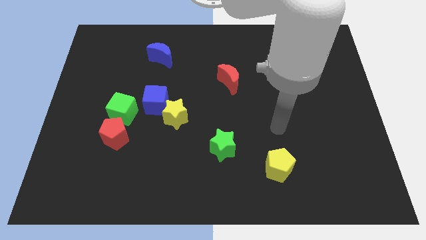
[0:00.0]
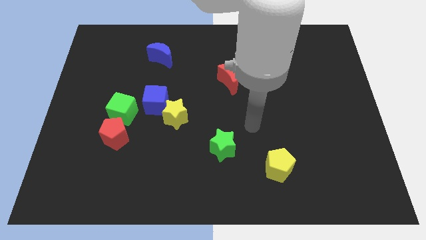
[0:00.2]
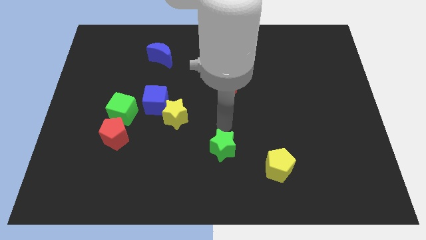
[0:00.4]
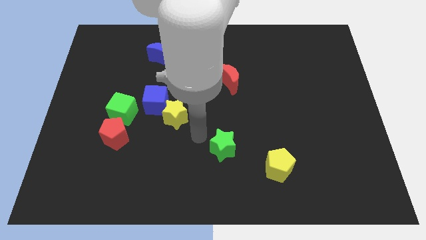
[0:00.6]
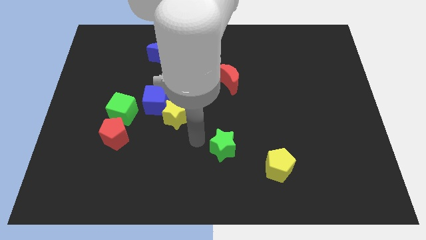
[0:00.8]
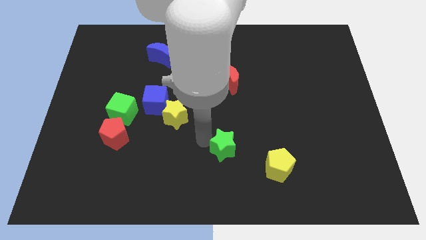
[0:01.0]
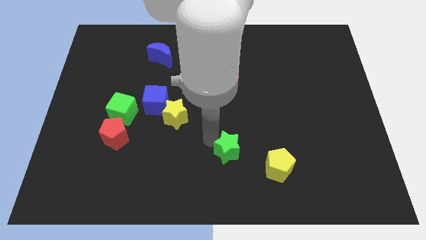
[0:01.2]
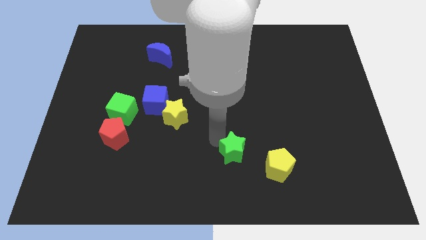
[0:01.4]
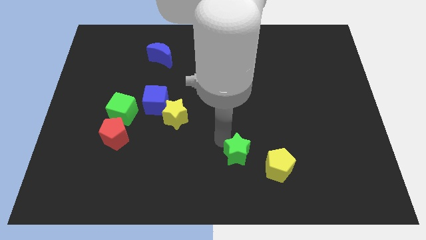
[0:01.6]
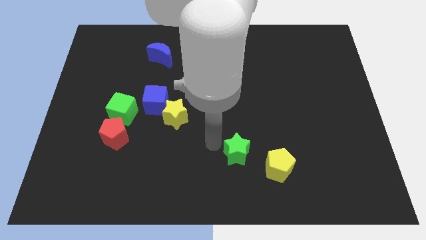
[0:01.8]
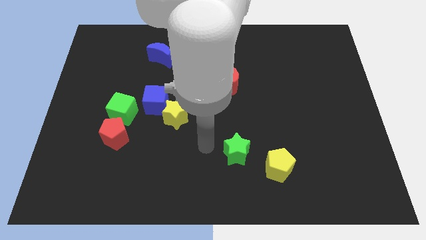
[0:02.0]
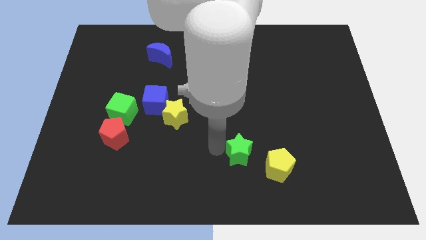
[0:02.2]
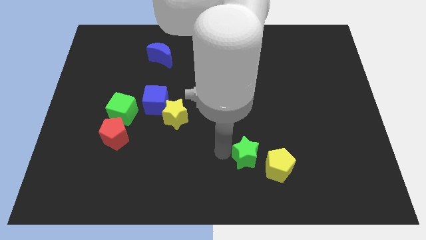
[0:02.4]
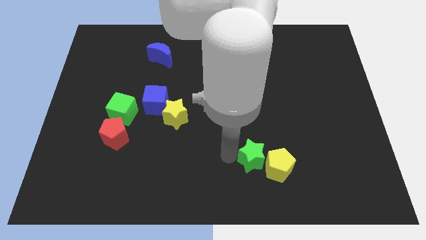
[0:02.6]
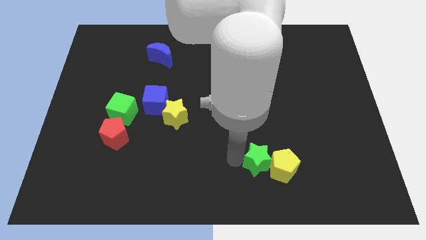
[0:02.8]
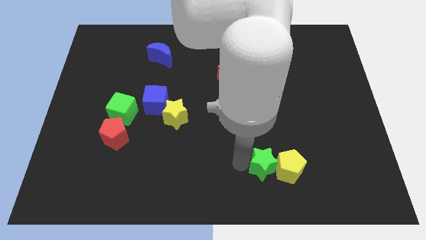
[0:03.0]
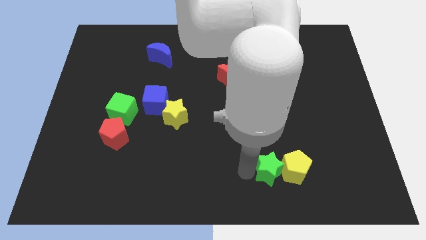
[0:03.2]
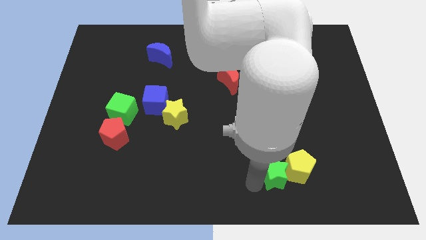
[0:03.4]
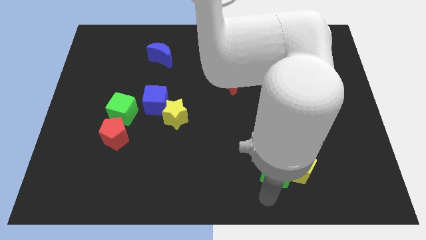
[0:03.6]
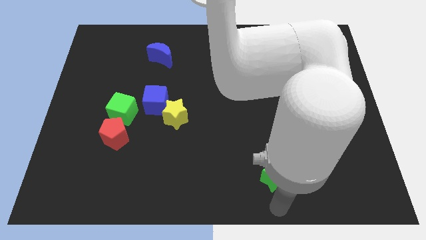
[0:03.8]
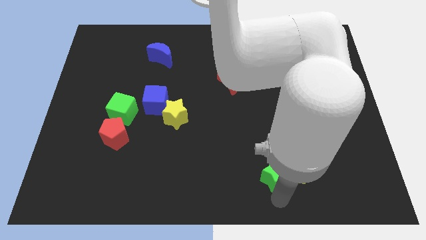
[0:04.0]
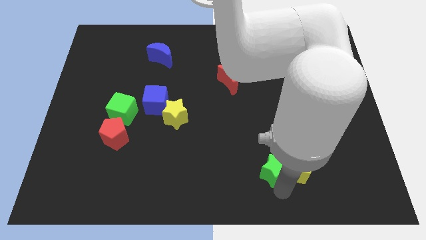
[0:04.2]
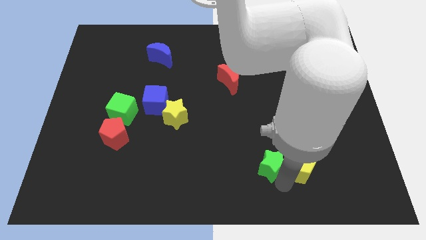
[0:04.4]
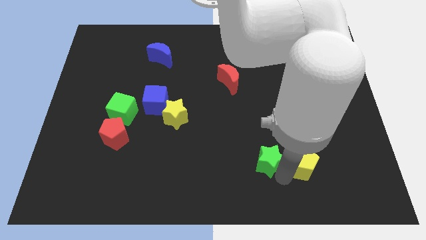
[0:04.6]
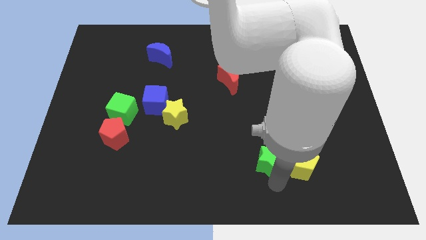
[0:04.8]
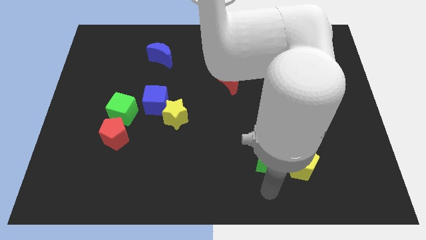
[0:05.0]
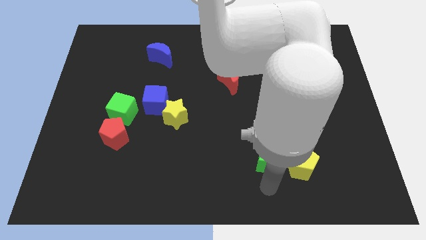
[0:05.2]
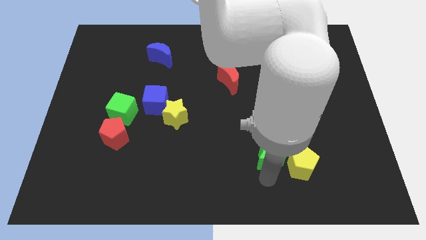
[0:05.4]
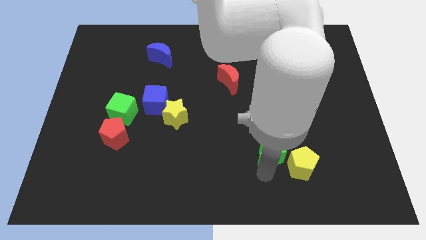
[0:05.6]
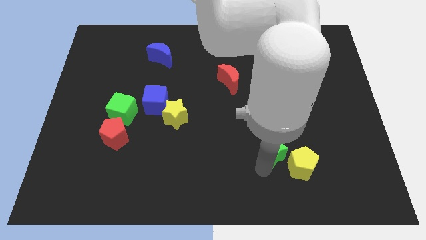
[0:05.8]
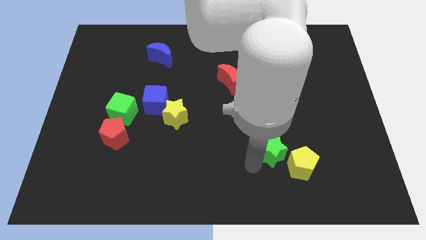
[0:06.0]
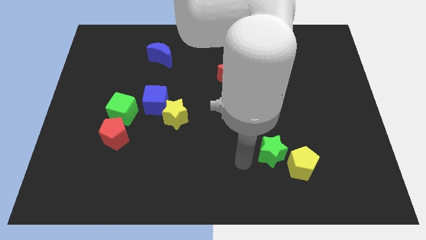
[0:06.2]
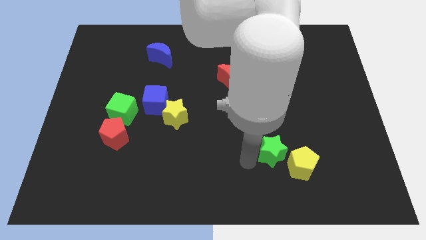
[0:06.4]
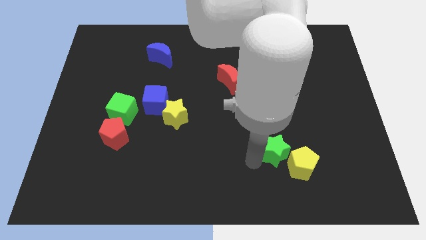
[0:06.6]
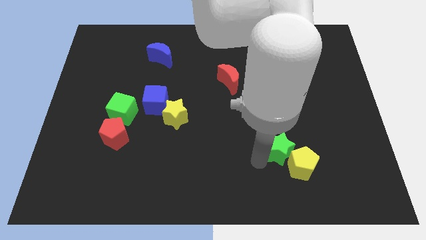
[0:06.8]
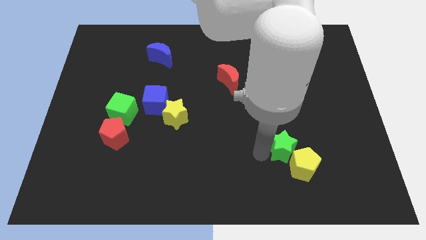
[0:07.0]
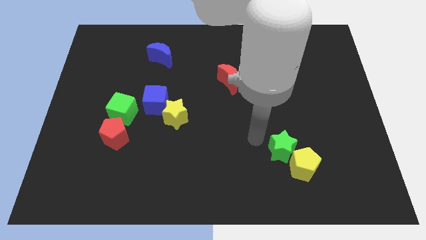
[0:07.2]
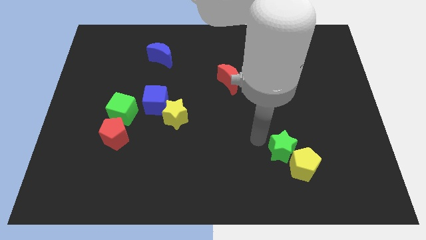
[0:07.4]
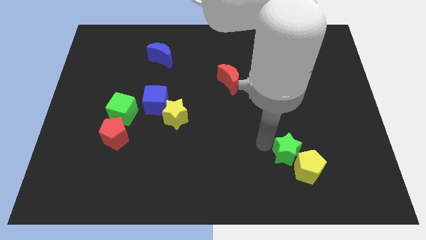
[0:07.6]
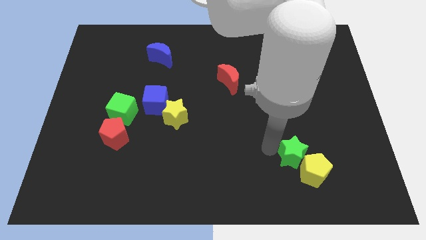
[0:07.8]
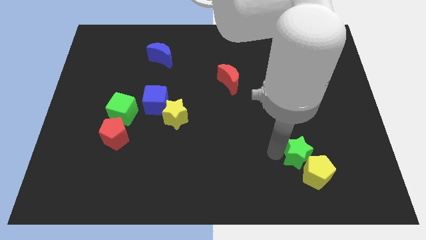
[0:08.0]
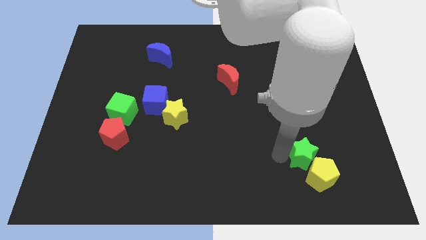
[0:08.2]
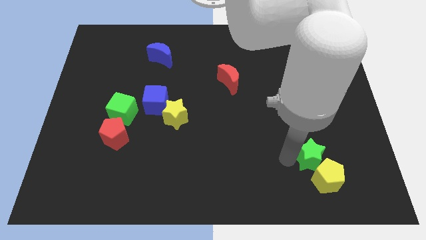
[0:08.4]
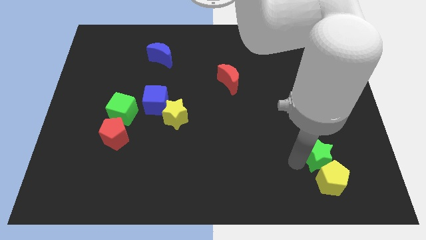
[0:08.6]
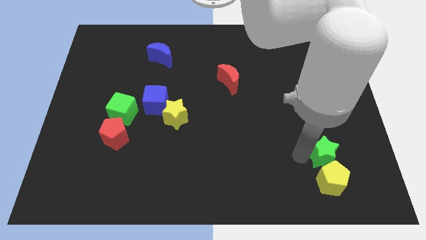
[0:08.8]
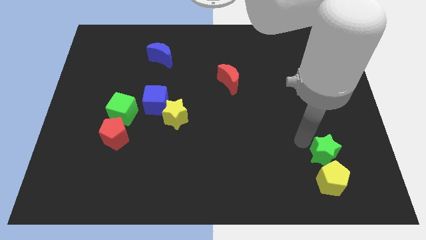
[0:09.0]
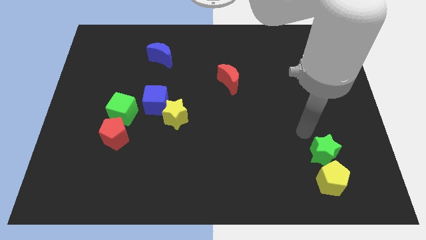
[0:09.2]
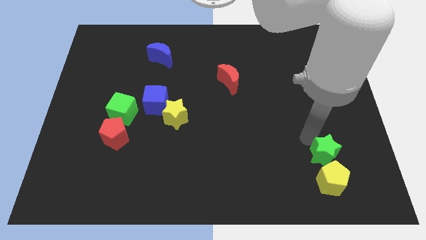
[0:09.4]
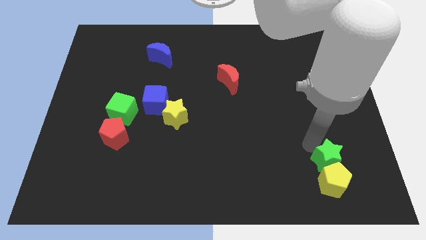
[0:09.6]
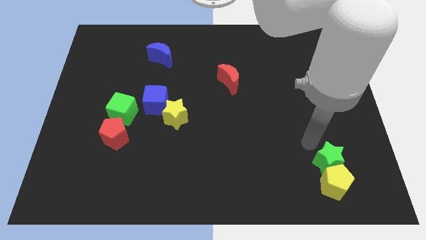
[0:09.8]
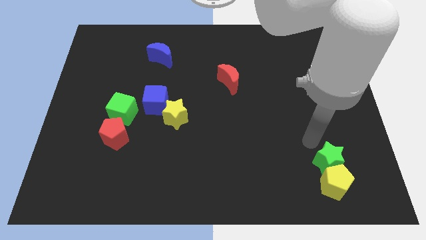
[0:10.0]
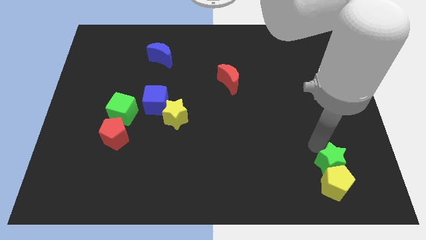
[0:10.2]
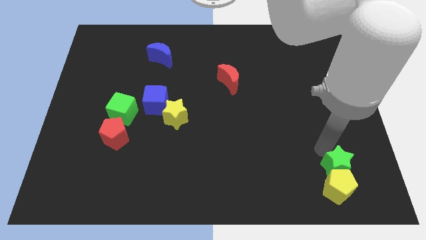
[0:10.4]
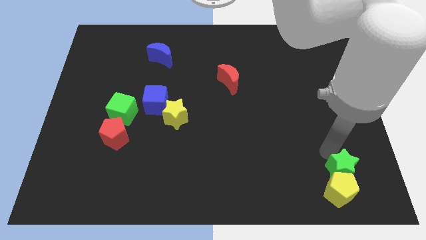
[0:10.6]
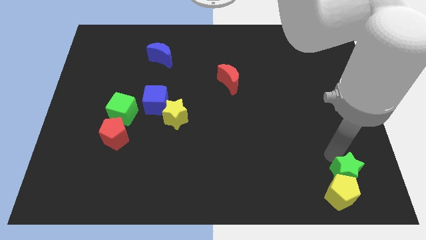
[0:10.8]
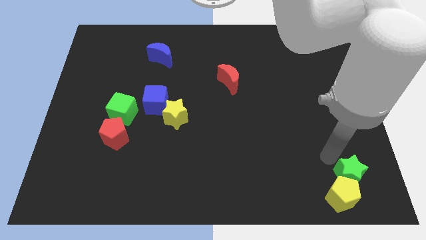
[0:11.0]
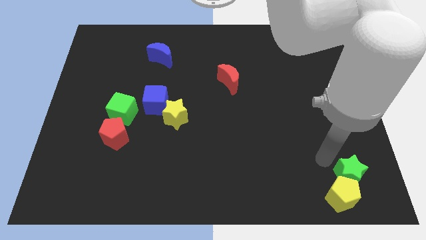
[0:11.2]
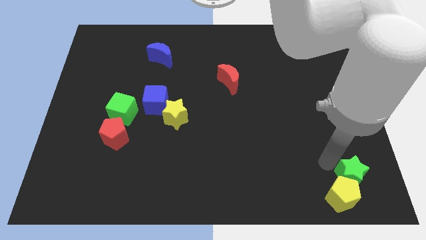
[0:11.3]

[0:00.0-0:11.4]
put the green star to the bottom right of the board

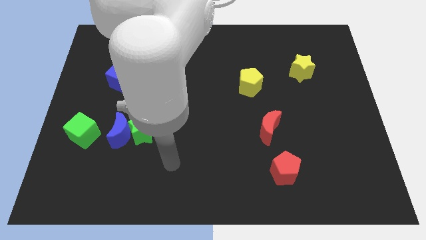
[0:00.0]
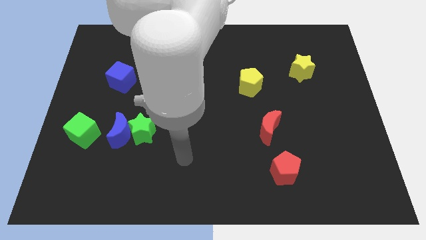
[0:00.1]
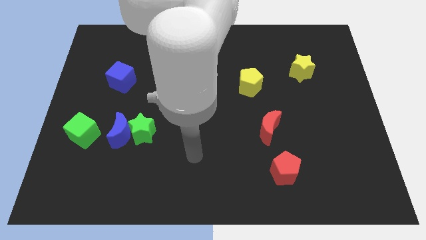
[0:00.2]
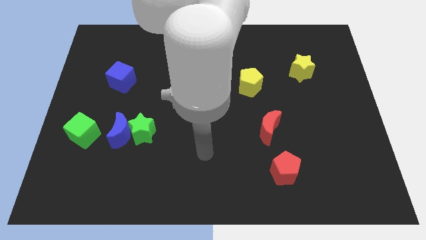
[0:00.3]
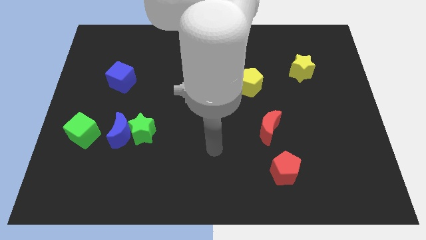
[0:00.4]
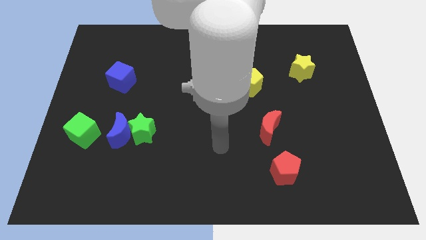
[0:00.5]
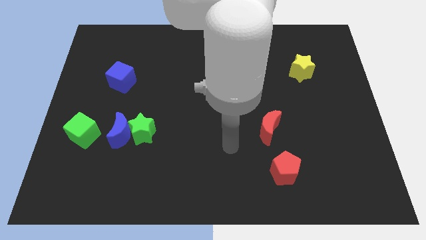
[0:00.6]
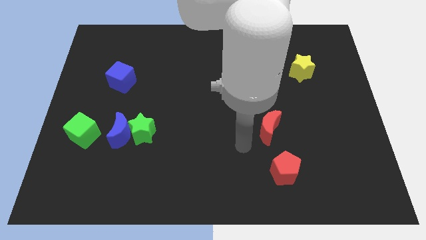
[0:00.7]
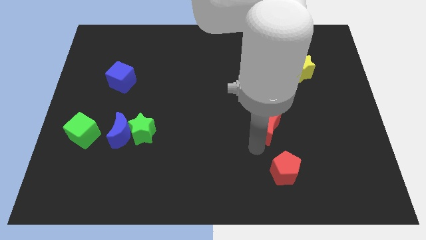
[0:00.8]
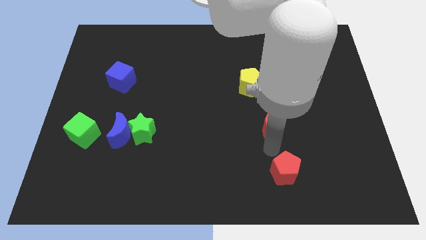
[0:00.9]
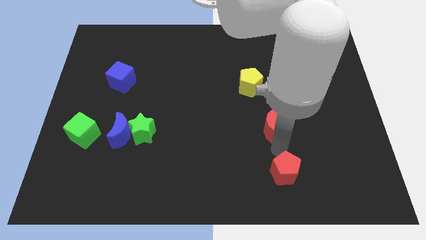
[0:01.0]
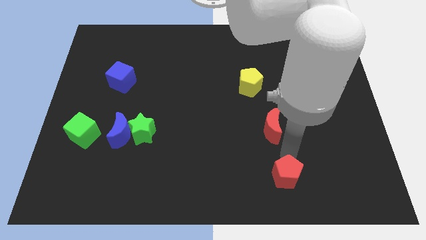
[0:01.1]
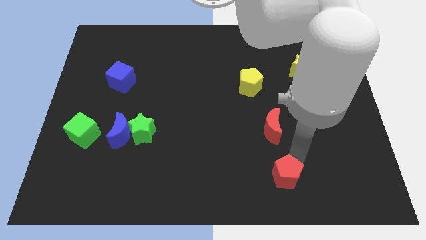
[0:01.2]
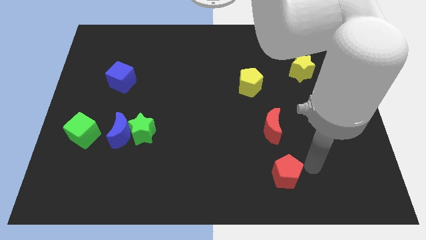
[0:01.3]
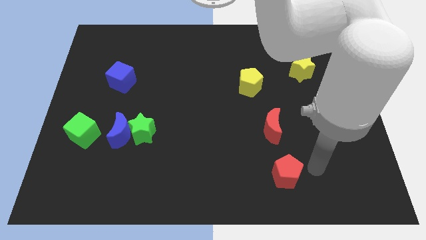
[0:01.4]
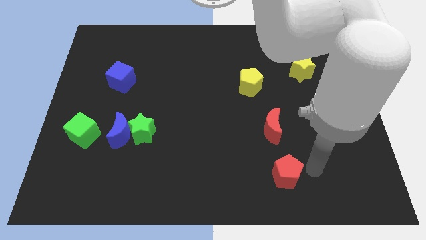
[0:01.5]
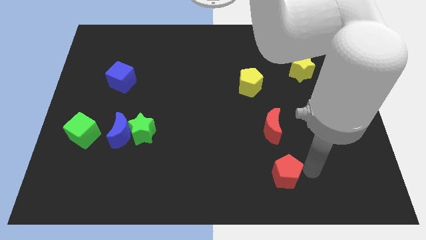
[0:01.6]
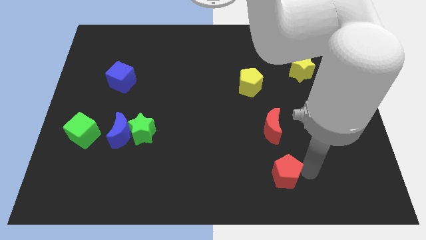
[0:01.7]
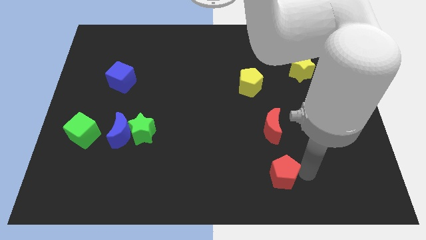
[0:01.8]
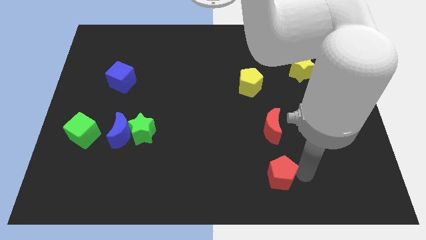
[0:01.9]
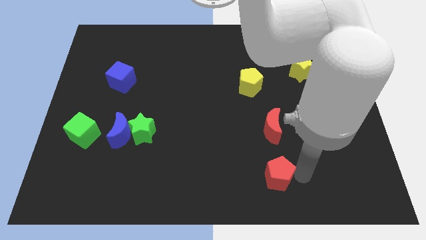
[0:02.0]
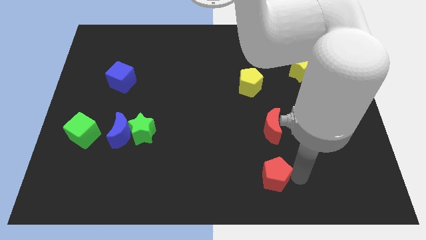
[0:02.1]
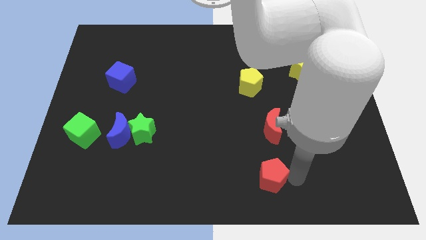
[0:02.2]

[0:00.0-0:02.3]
move the red pentagon to the bottom
